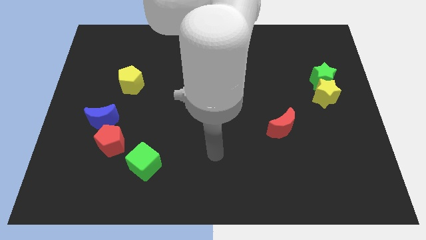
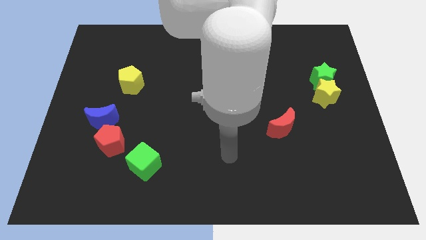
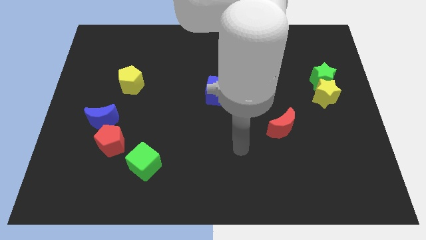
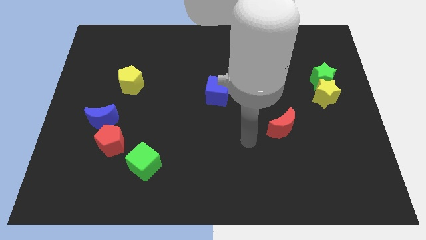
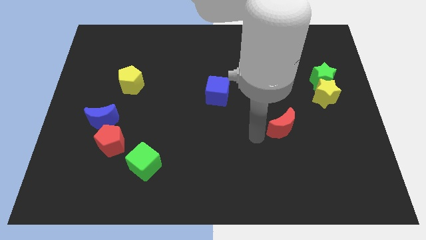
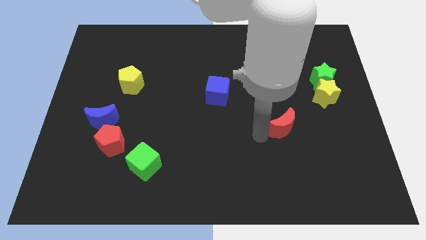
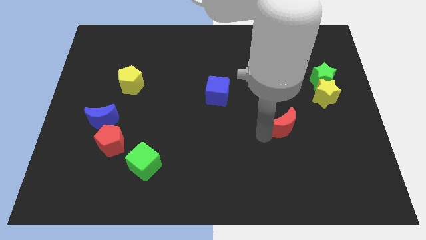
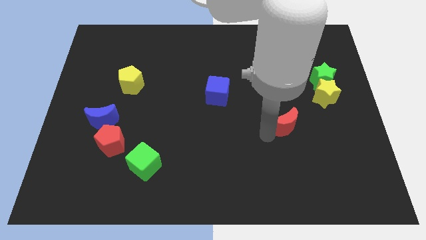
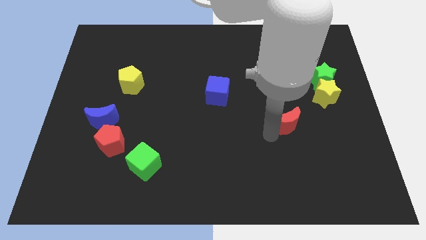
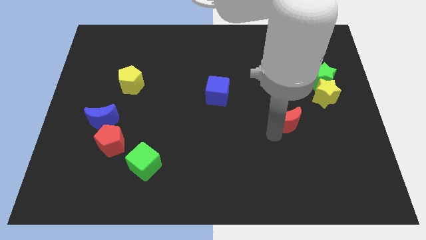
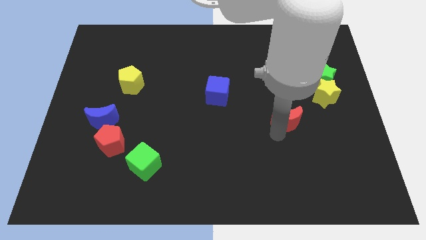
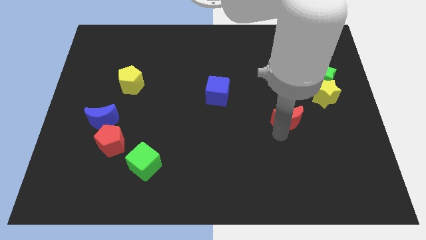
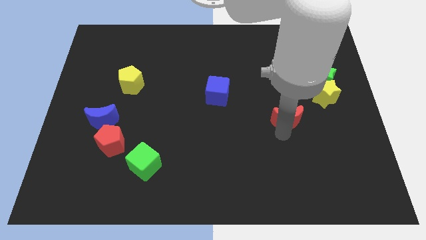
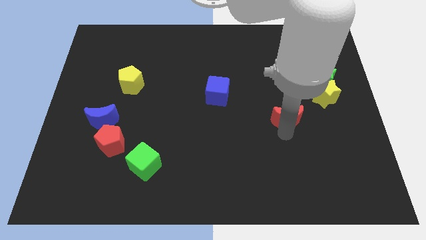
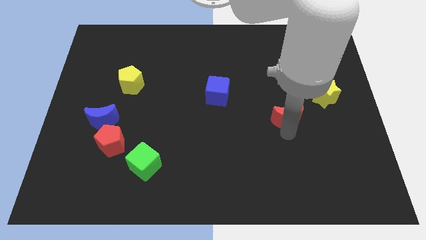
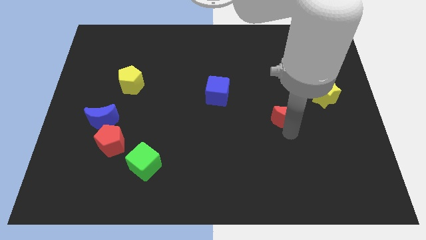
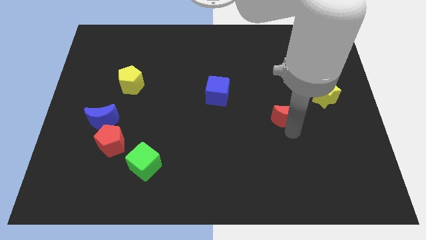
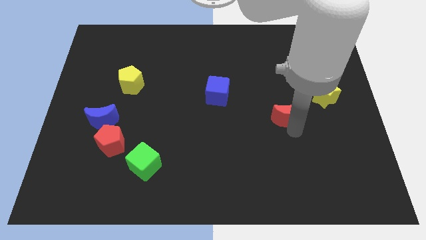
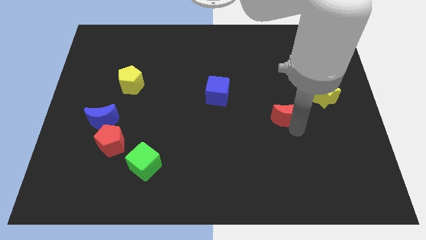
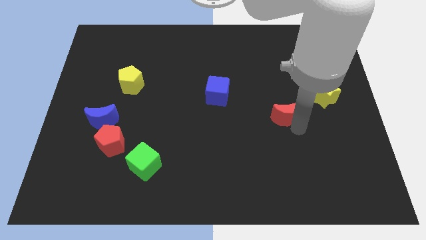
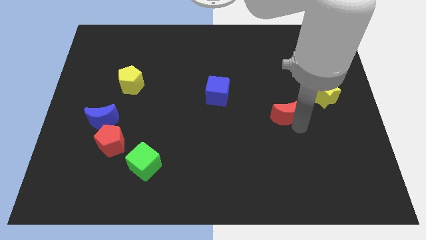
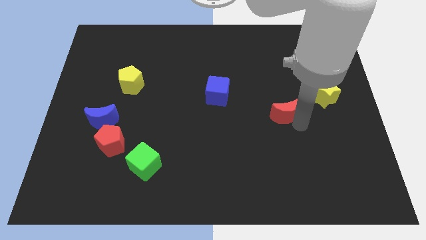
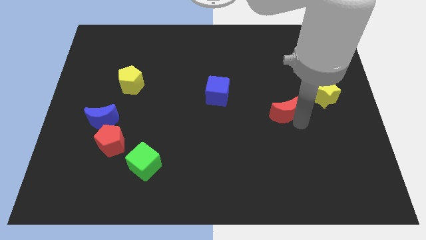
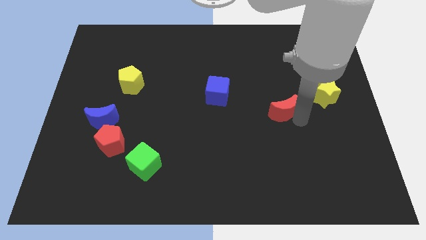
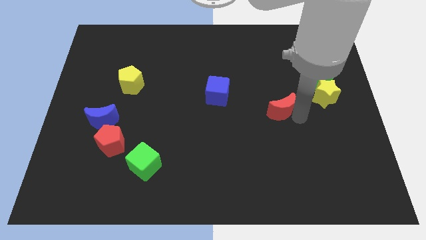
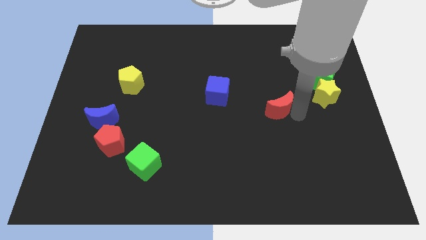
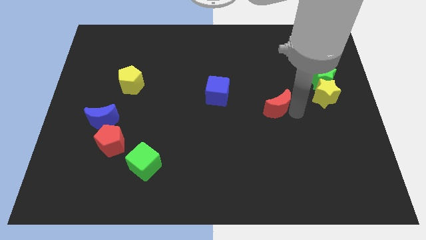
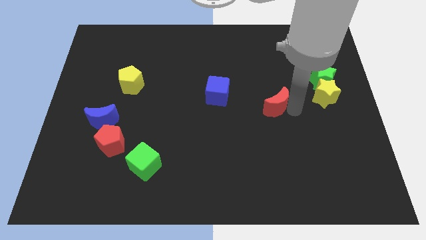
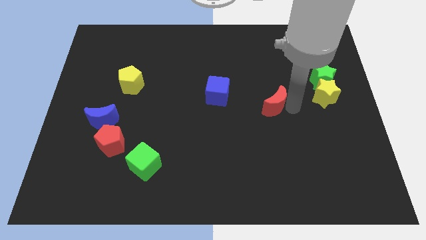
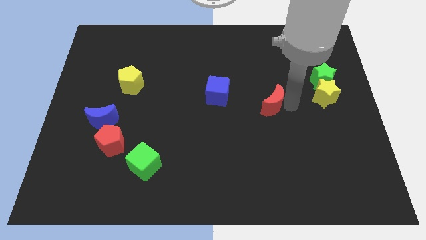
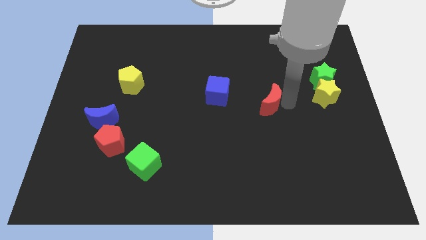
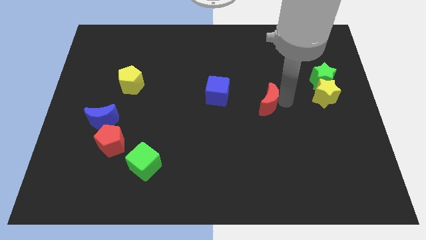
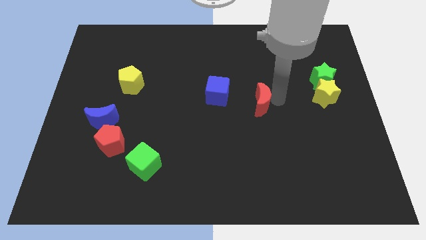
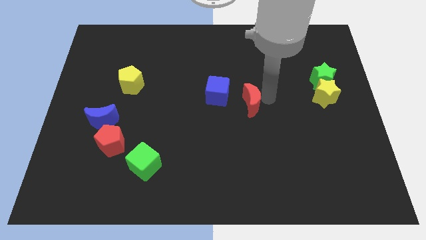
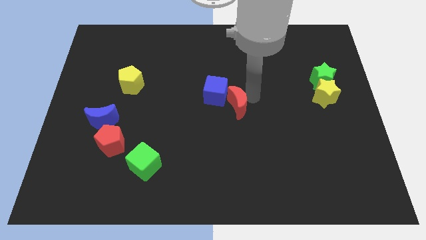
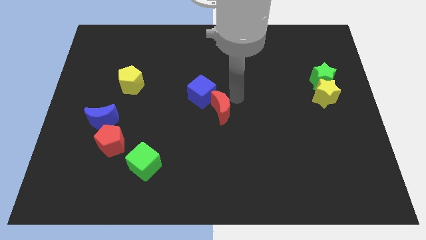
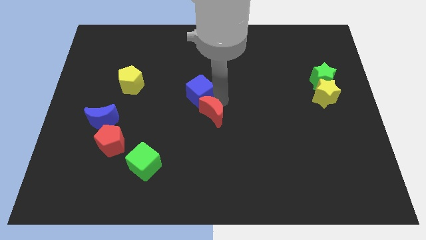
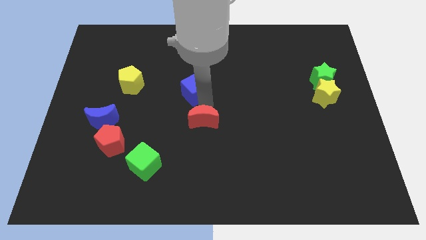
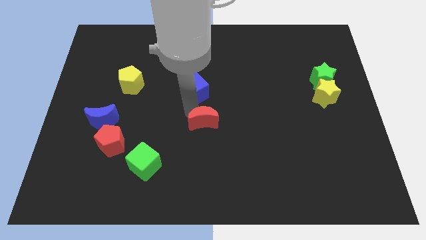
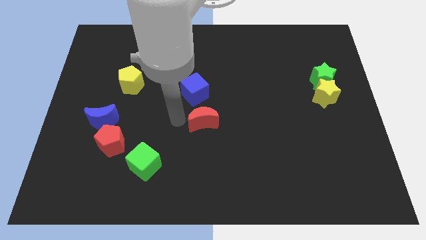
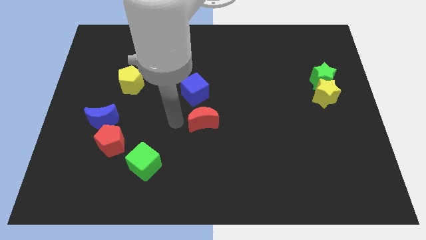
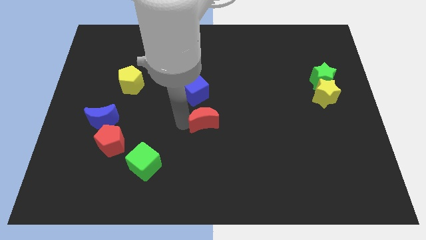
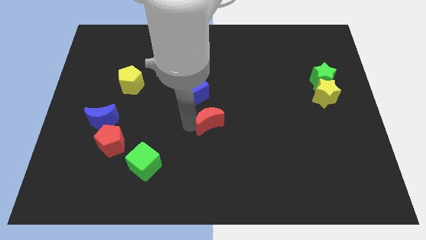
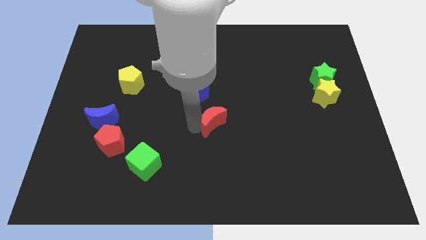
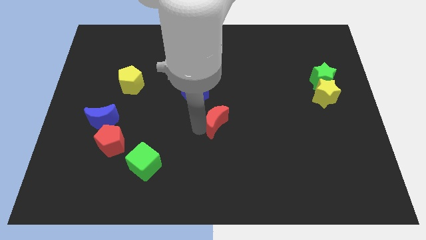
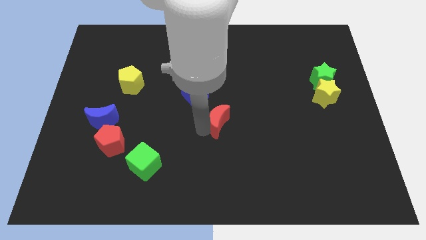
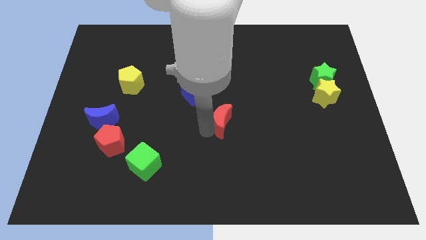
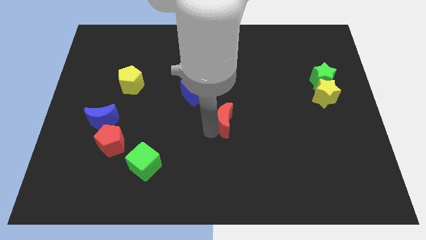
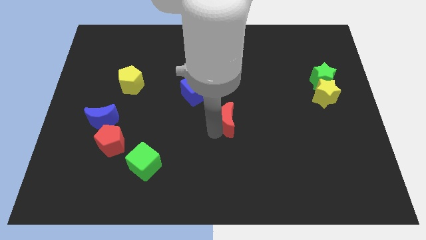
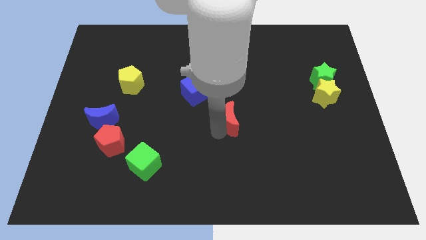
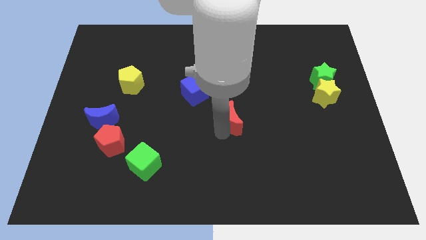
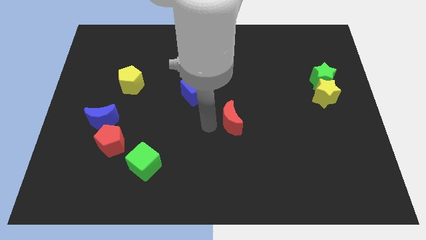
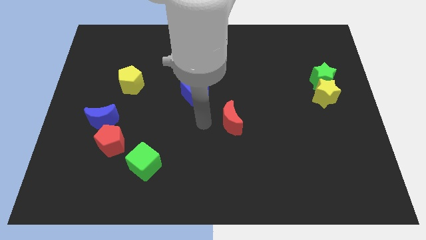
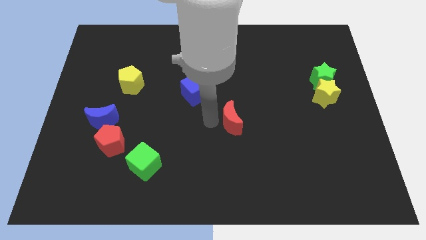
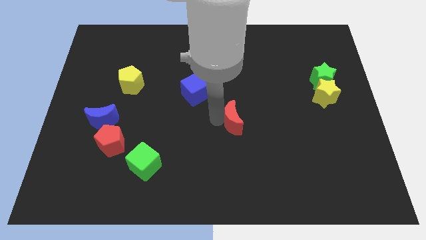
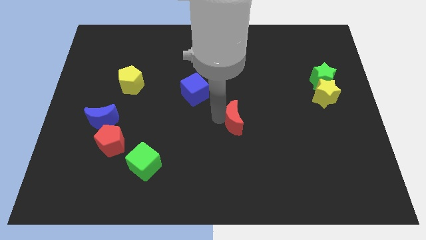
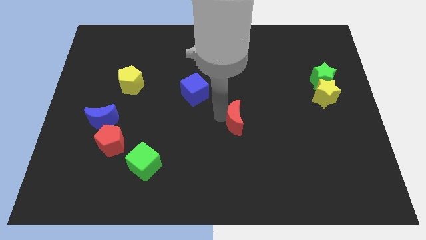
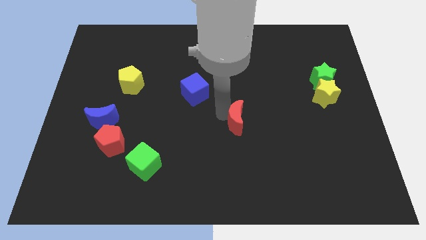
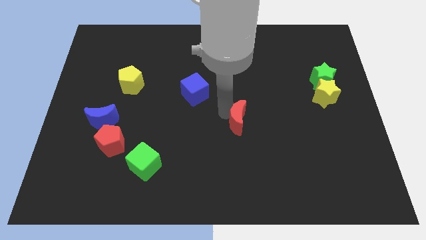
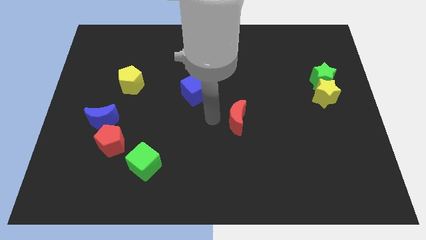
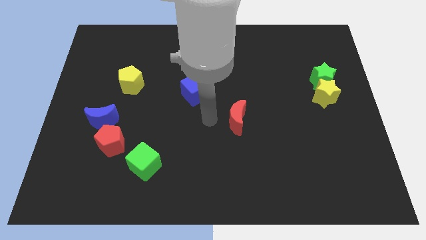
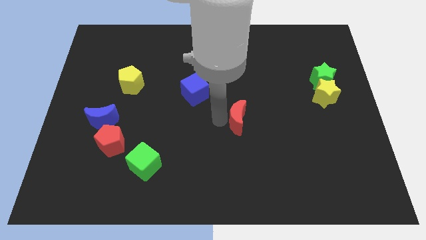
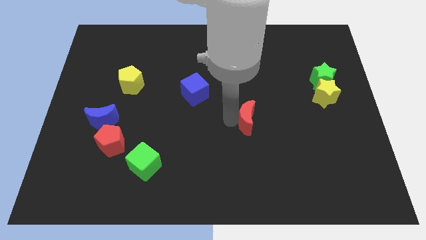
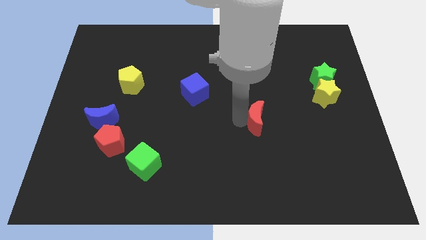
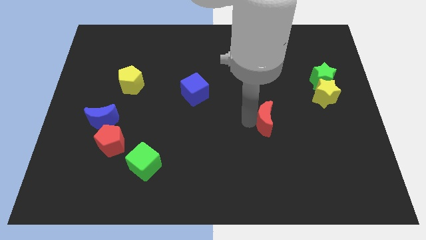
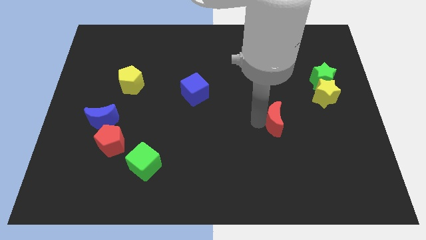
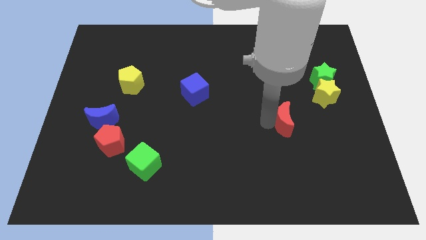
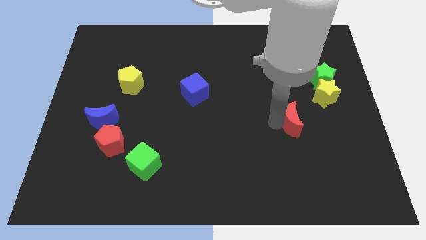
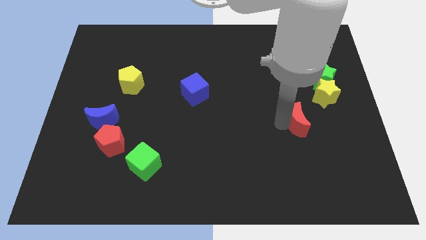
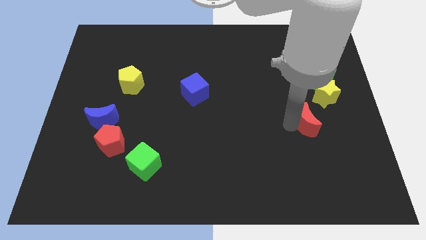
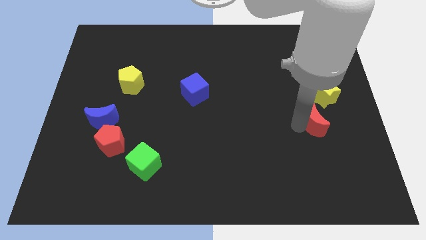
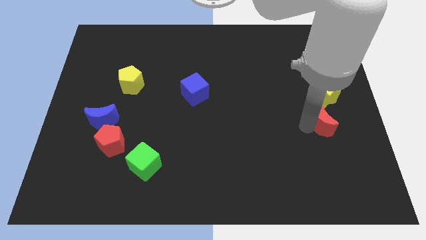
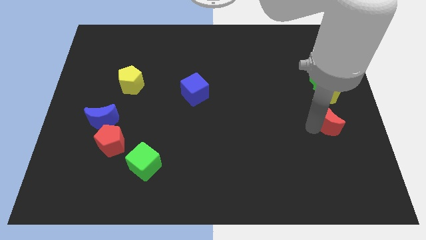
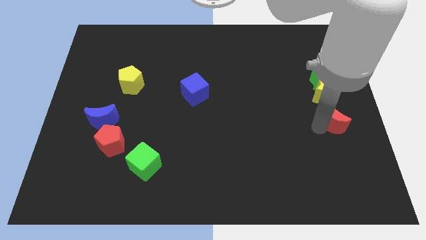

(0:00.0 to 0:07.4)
push the red moon to the right side

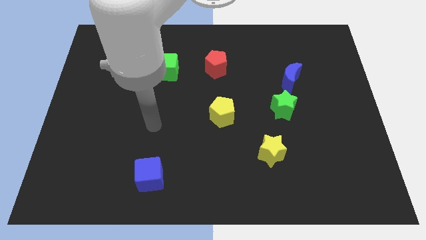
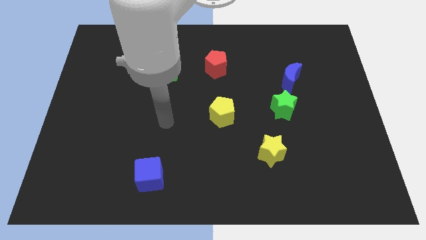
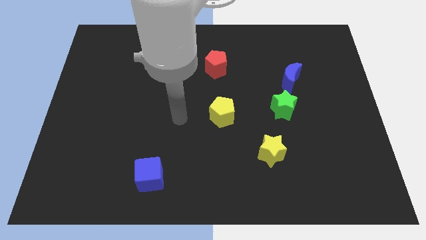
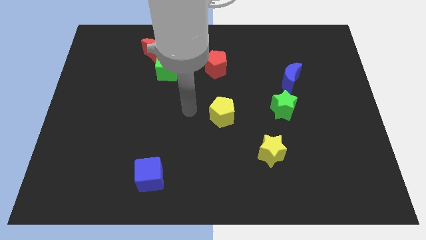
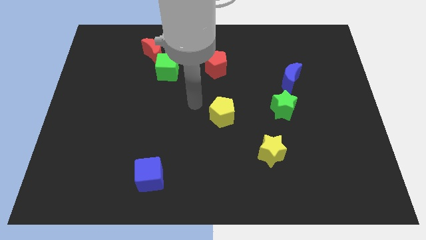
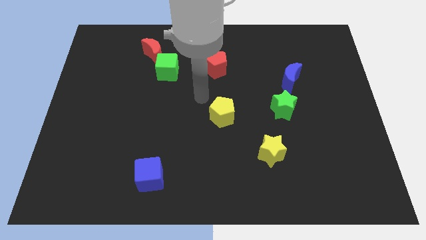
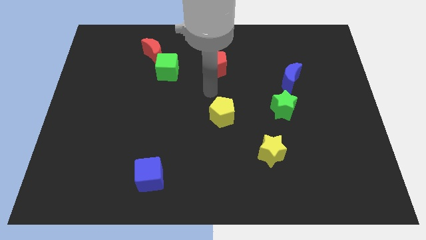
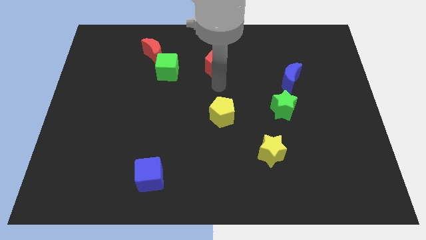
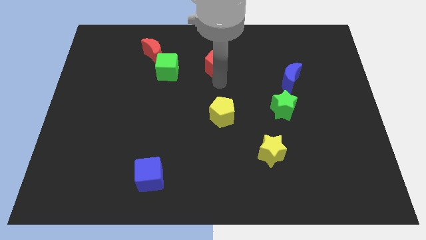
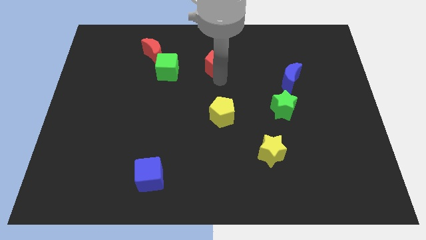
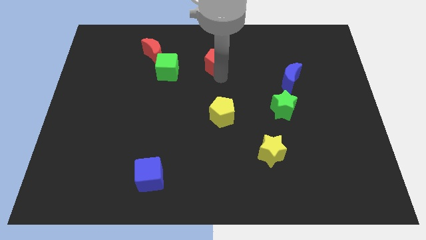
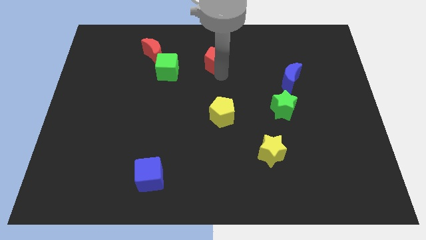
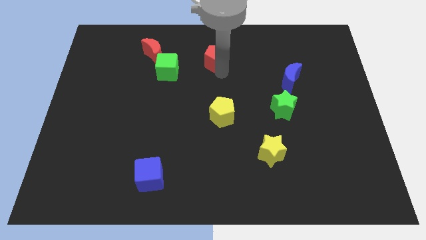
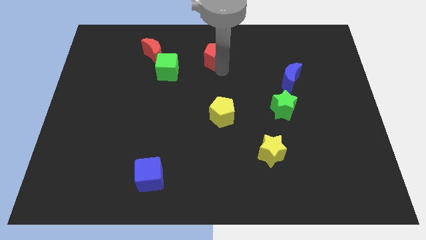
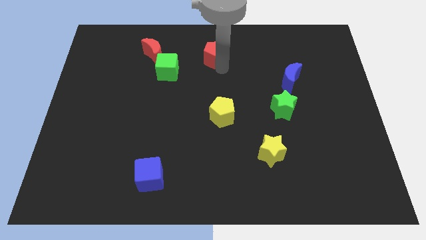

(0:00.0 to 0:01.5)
push the red pentagon to the top side
